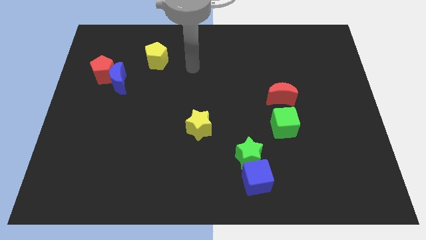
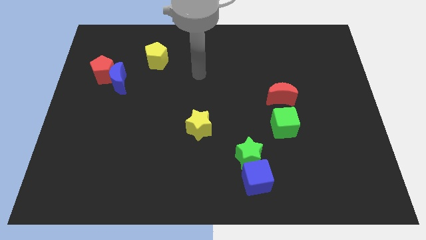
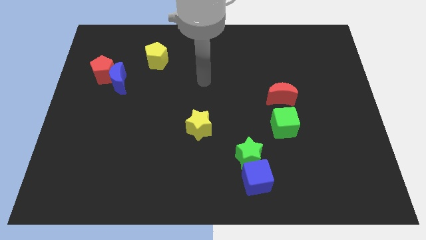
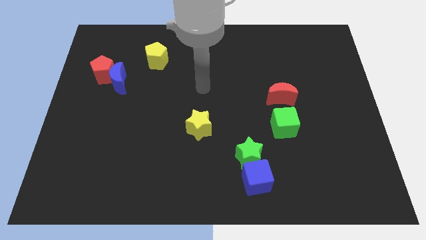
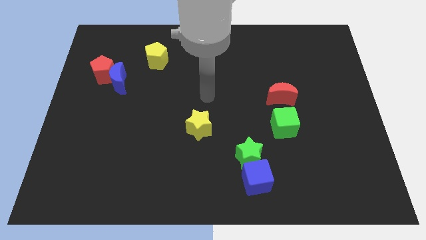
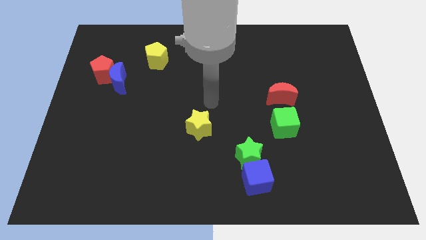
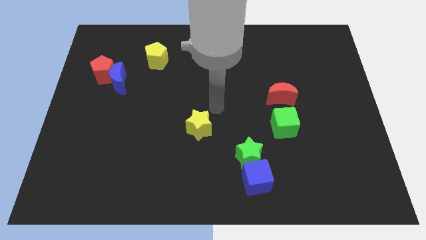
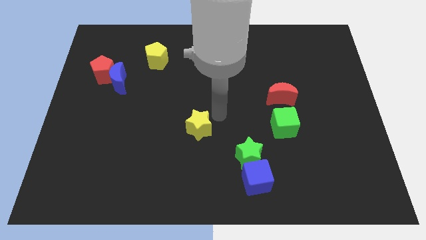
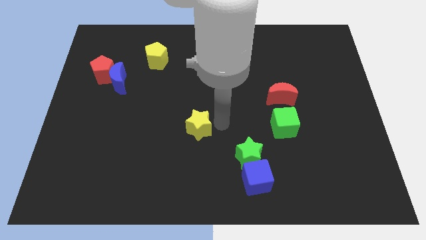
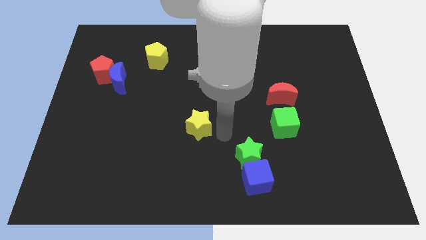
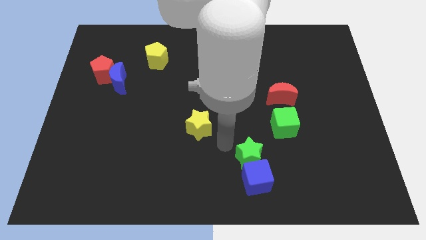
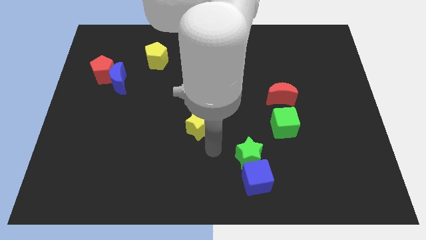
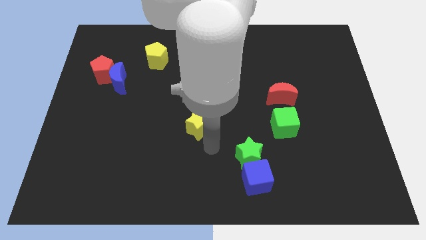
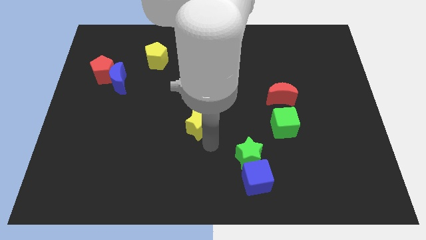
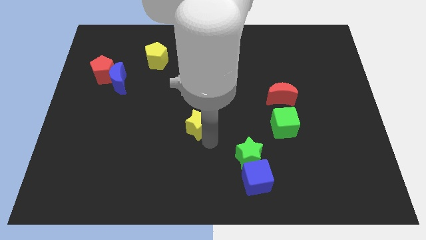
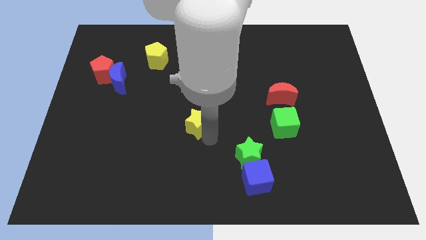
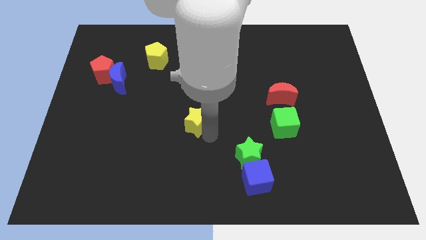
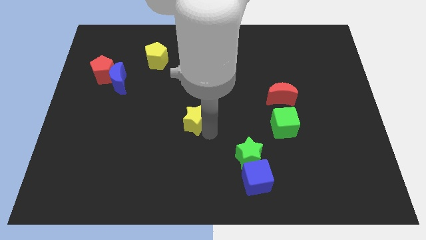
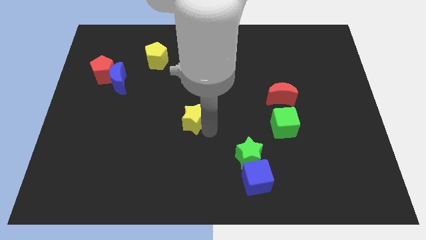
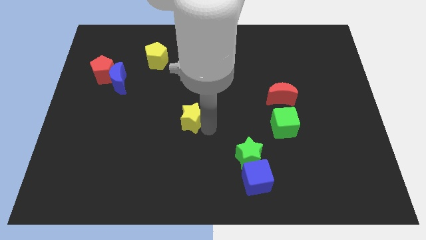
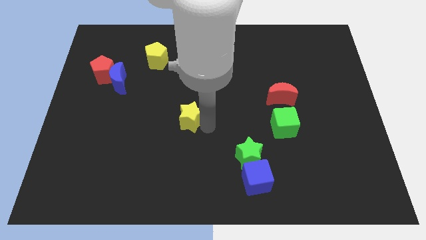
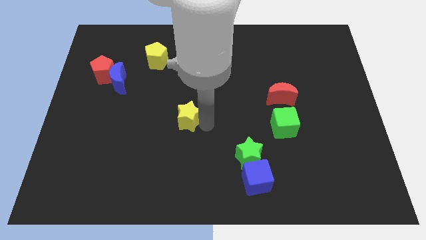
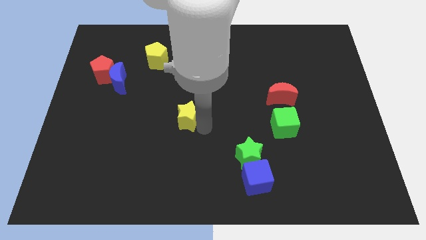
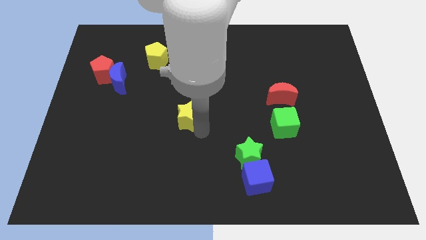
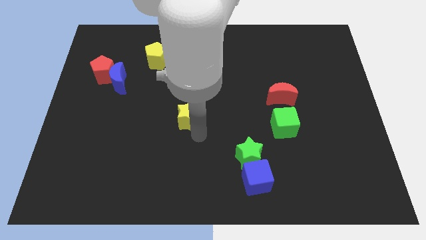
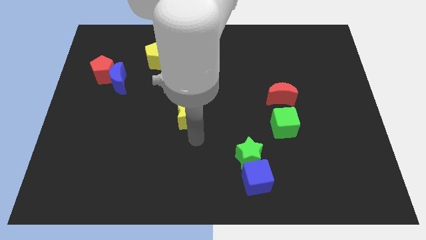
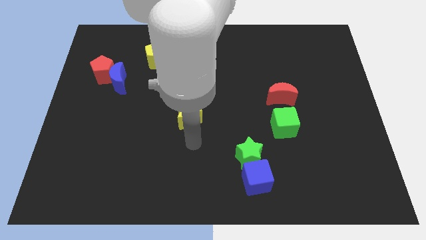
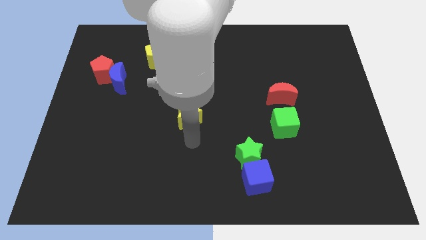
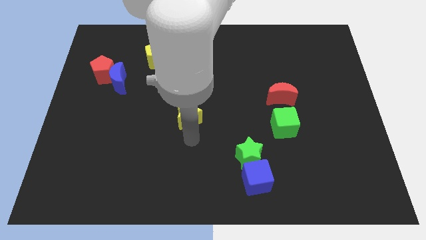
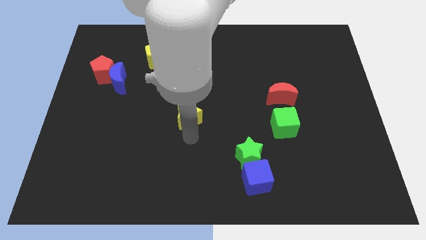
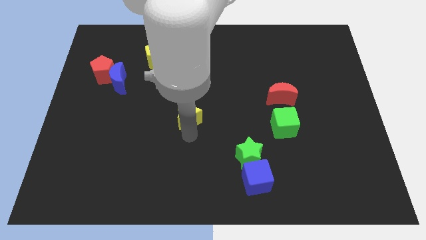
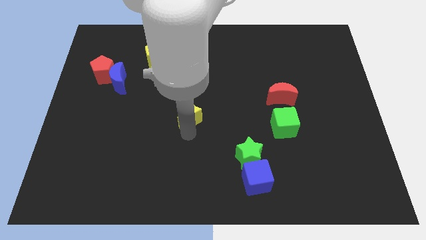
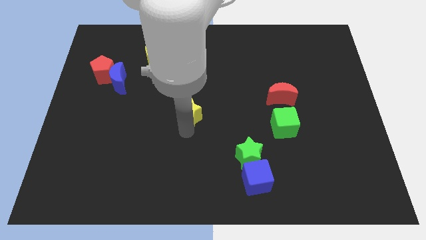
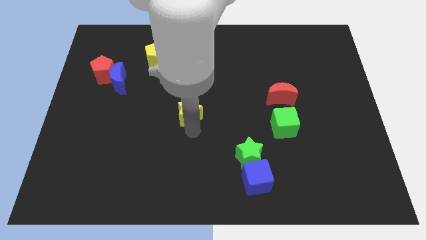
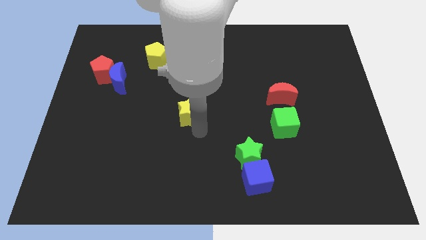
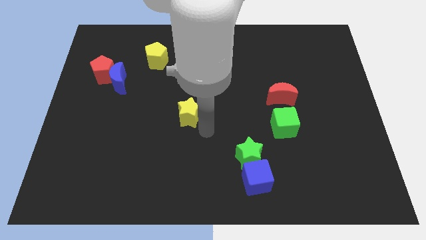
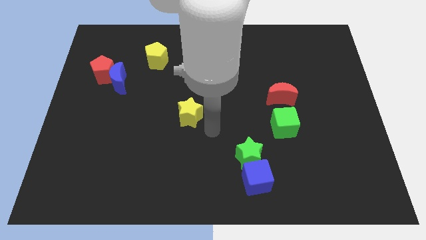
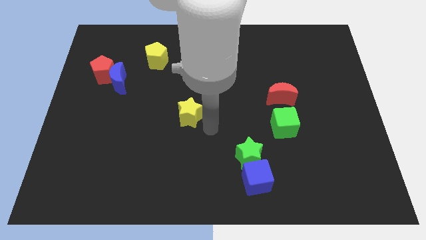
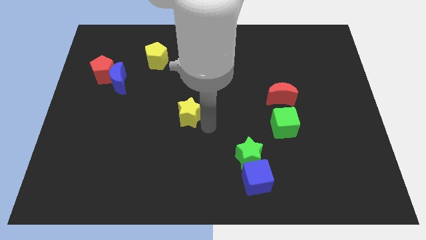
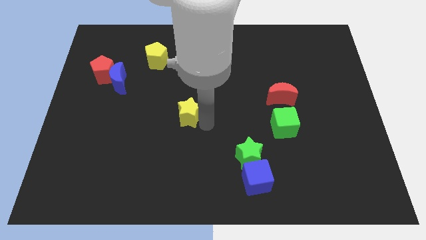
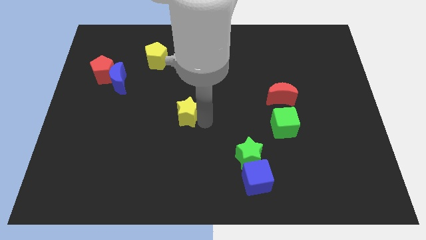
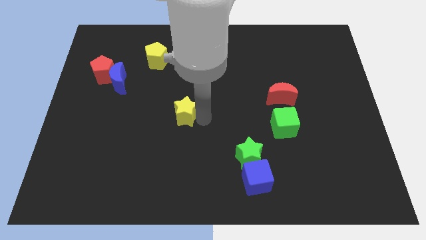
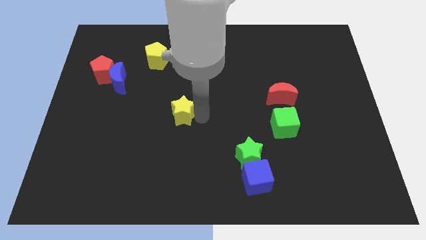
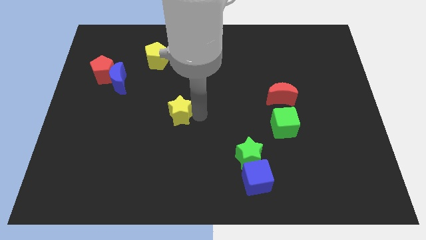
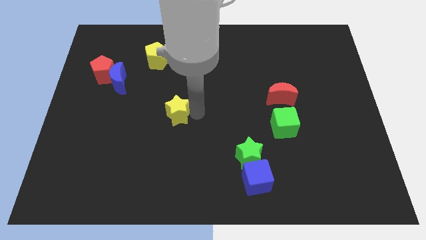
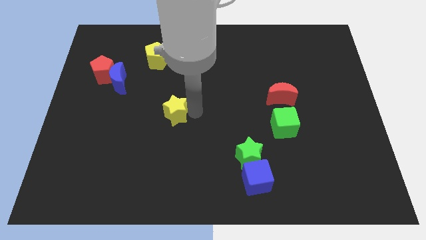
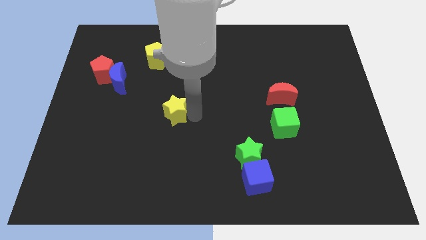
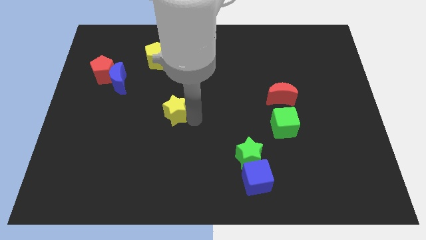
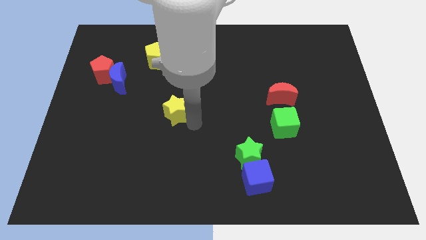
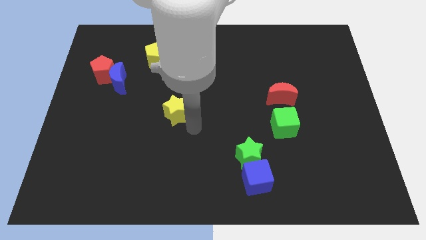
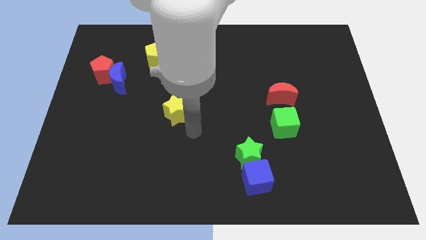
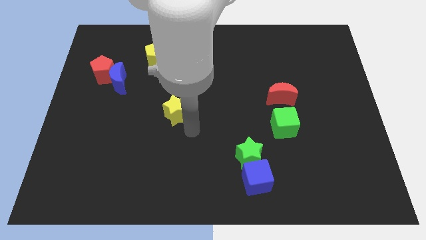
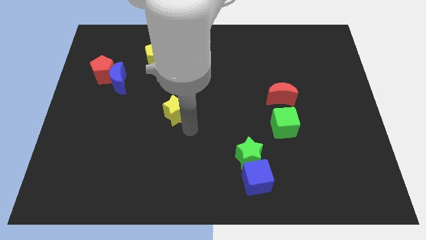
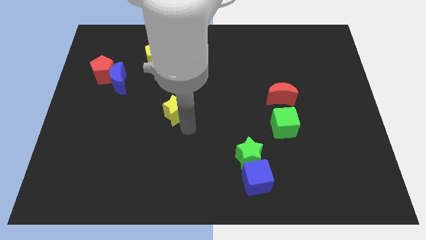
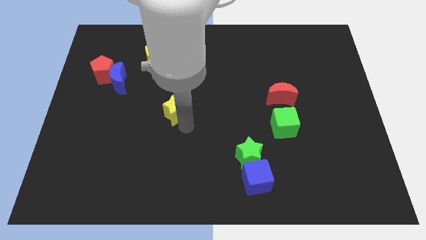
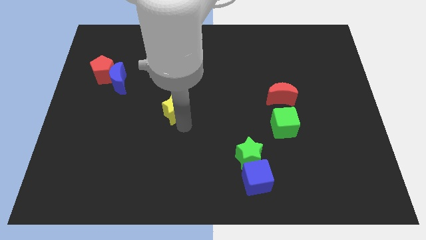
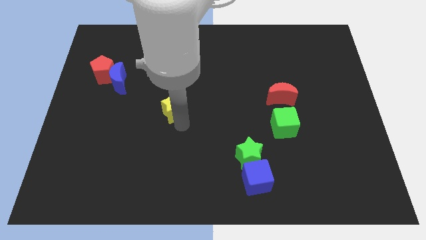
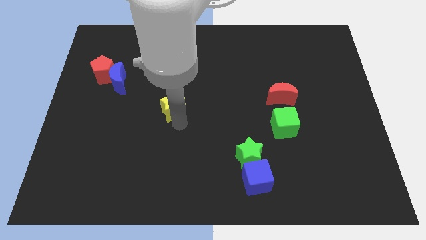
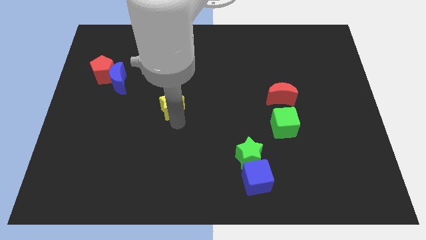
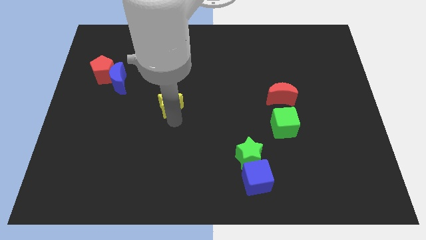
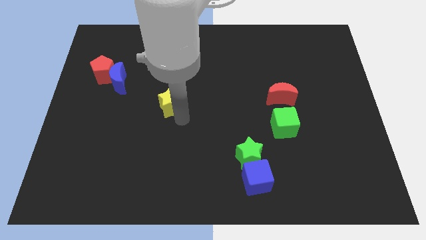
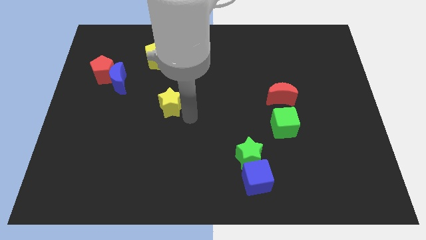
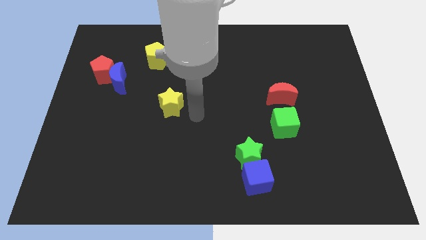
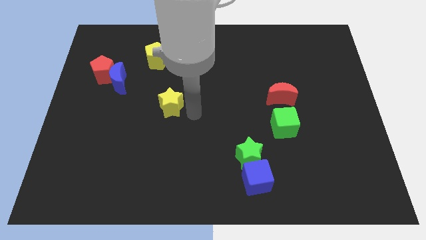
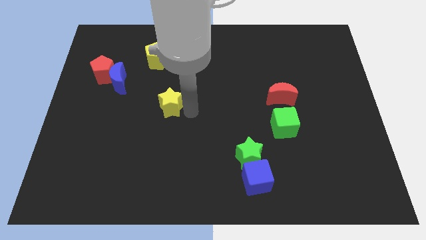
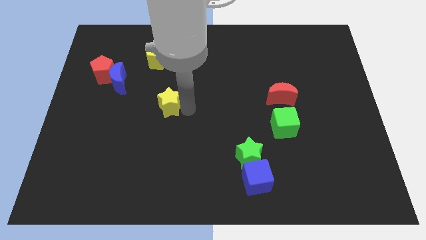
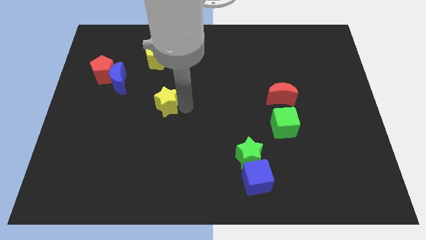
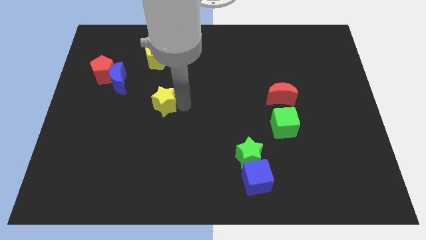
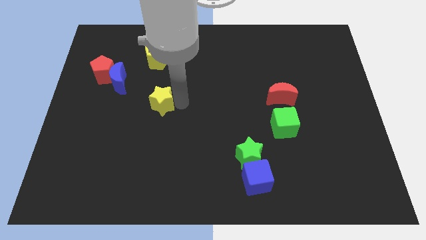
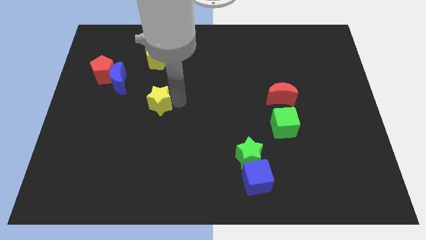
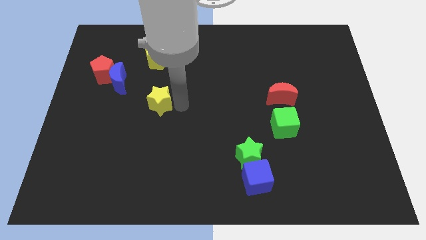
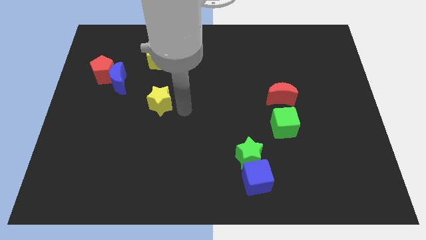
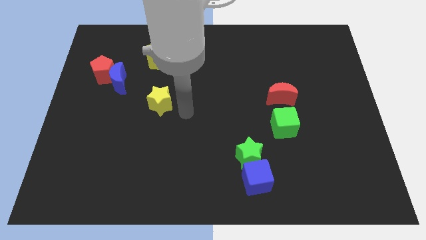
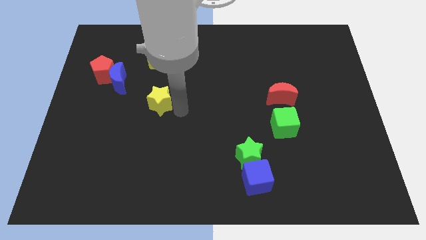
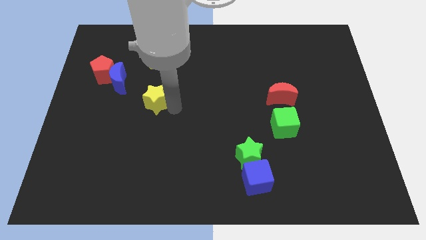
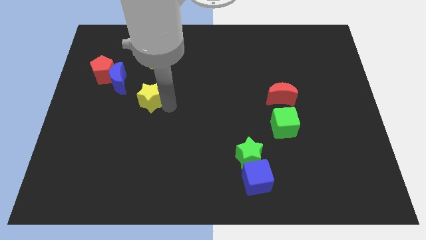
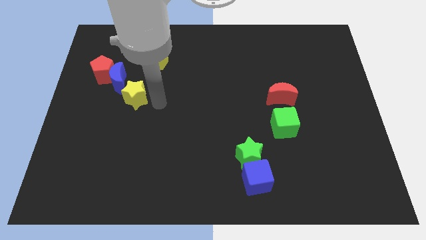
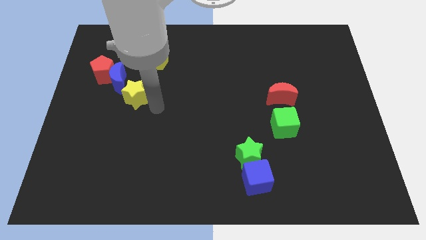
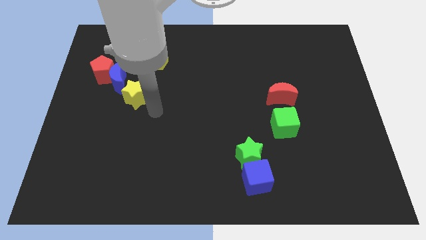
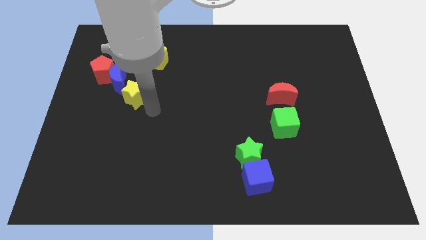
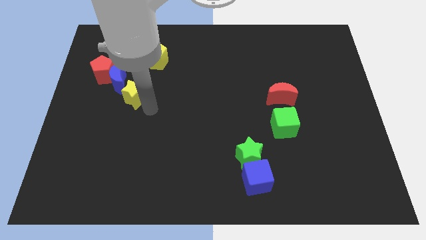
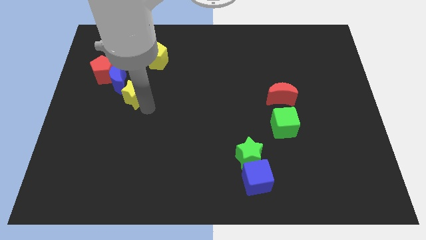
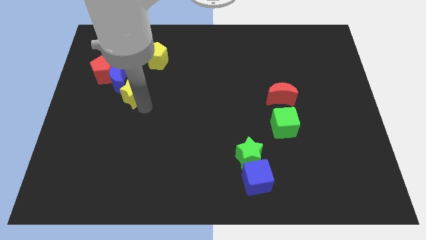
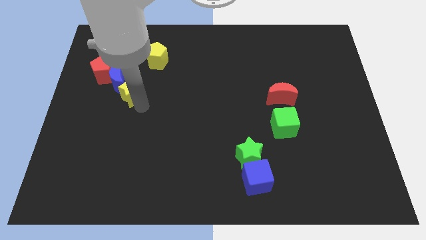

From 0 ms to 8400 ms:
push the yellow star next to the blue moon
